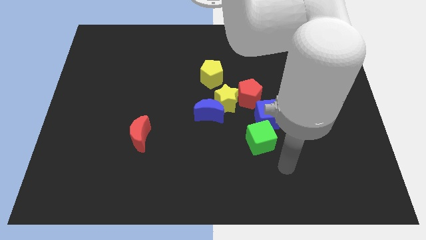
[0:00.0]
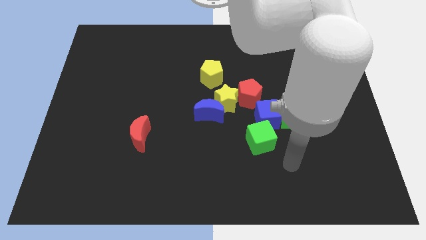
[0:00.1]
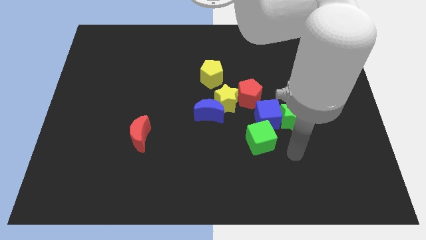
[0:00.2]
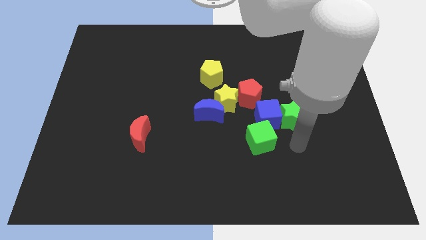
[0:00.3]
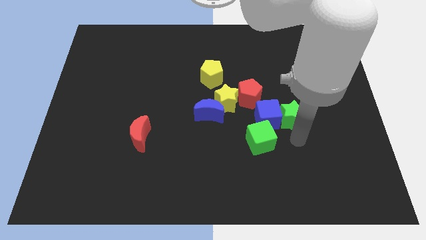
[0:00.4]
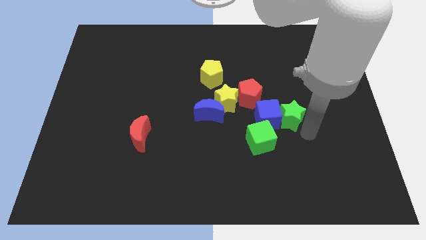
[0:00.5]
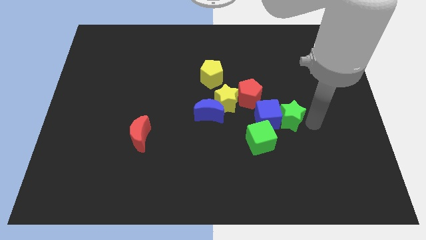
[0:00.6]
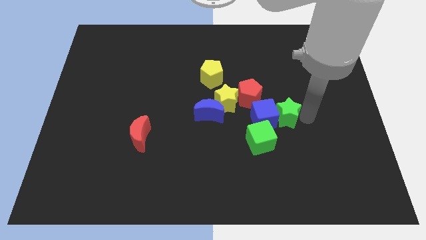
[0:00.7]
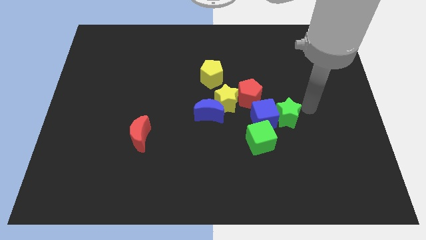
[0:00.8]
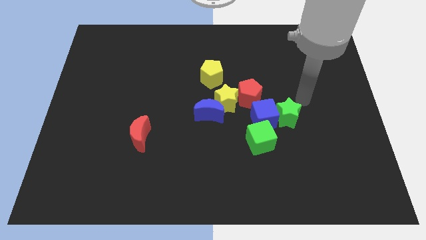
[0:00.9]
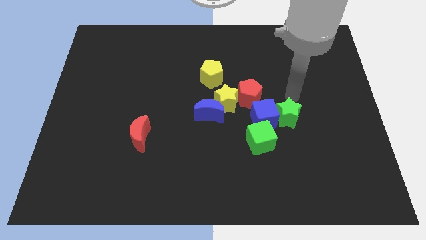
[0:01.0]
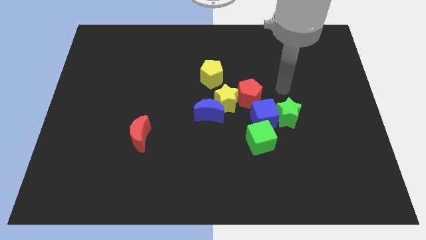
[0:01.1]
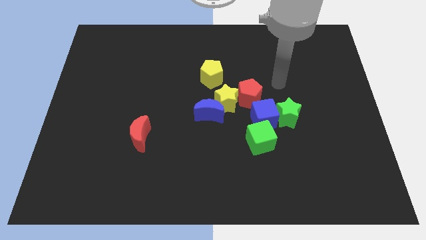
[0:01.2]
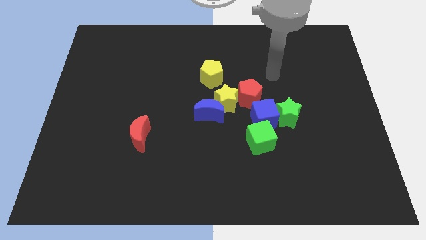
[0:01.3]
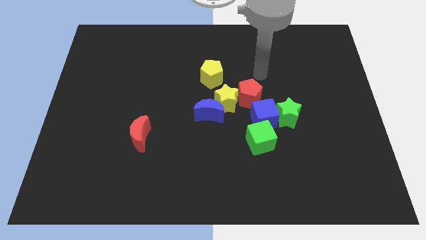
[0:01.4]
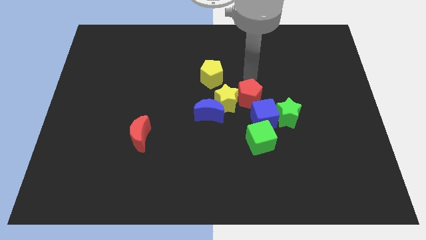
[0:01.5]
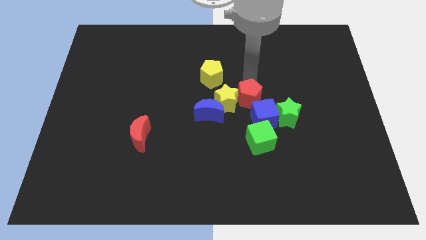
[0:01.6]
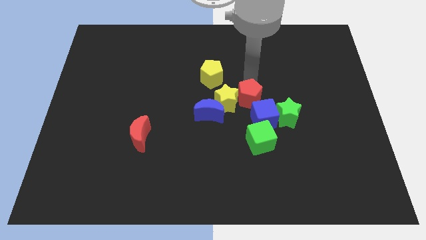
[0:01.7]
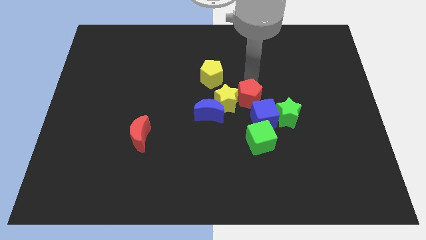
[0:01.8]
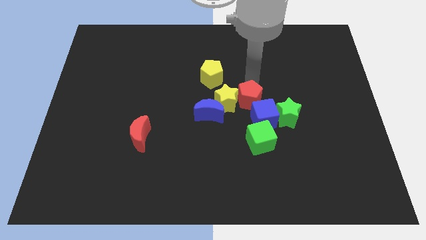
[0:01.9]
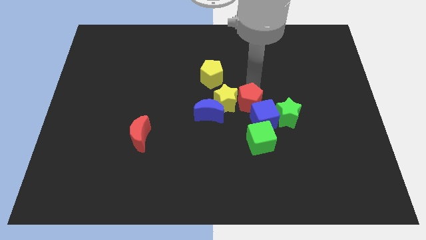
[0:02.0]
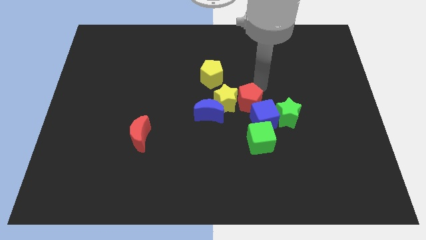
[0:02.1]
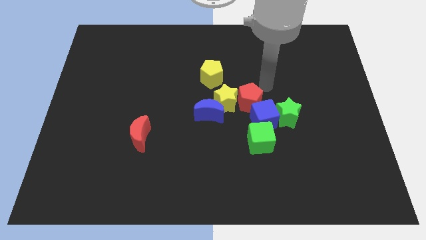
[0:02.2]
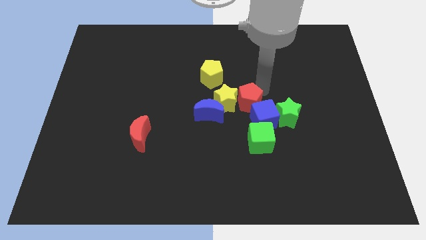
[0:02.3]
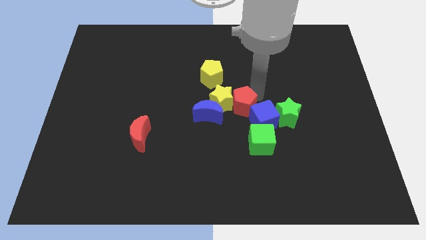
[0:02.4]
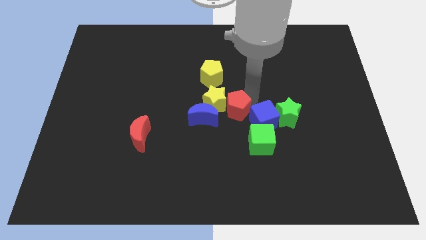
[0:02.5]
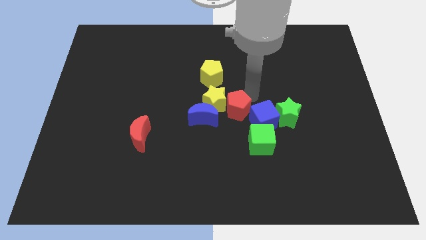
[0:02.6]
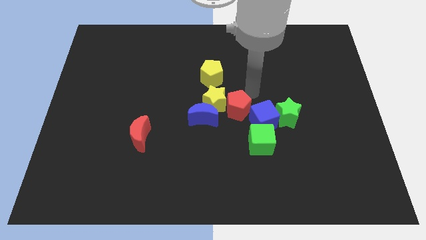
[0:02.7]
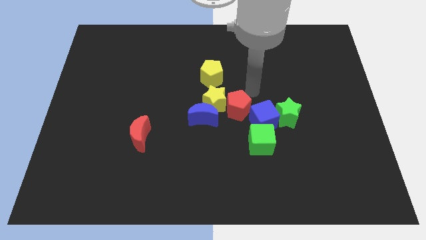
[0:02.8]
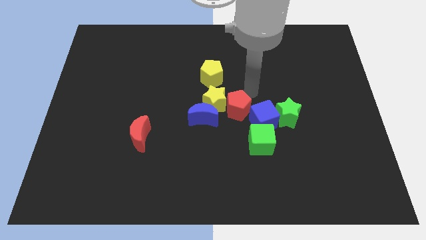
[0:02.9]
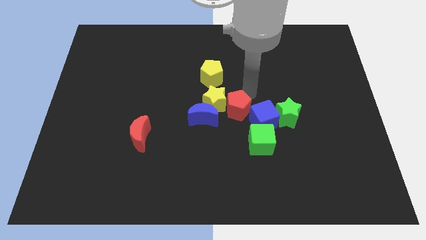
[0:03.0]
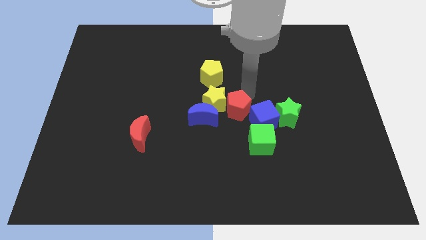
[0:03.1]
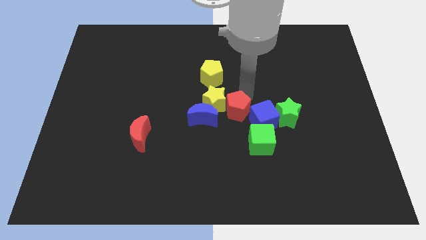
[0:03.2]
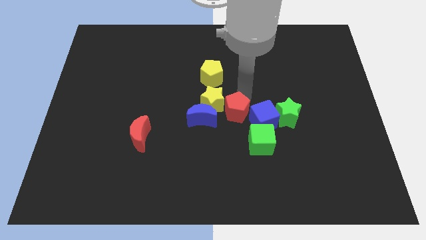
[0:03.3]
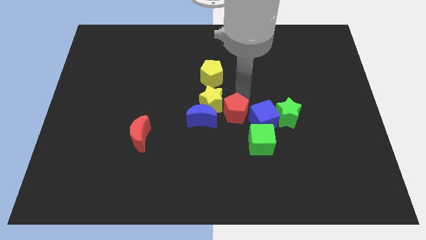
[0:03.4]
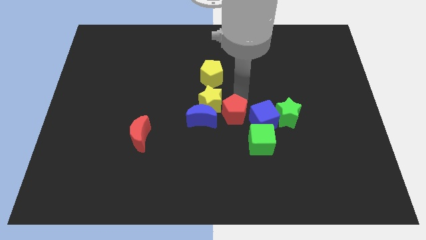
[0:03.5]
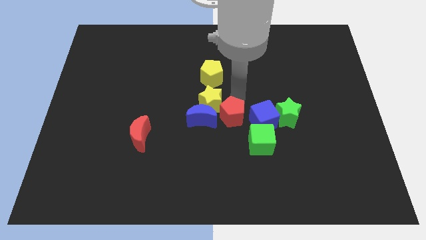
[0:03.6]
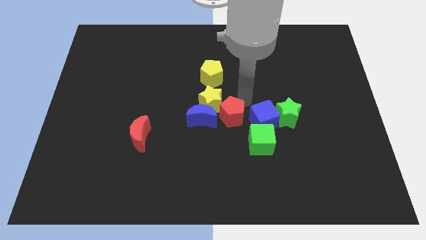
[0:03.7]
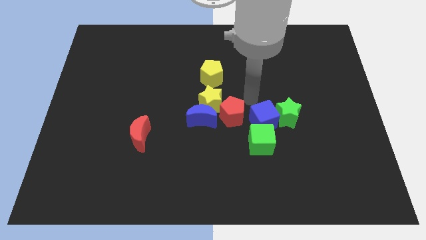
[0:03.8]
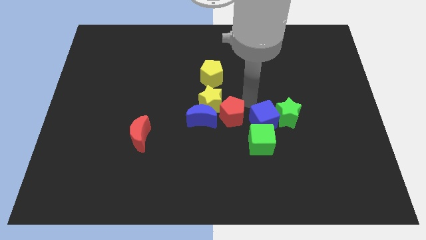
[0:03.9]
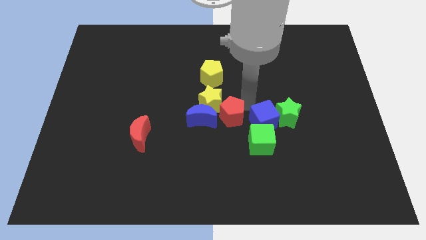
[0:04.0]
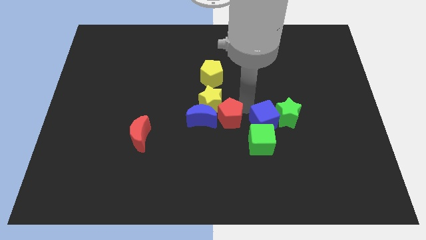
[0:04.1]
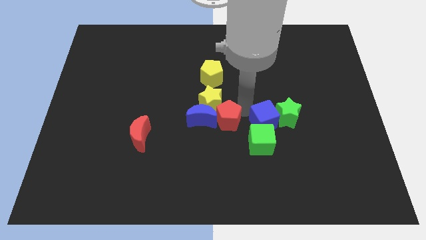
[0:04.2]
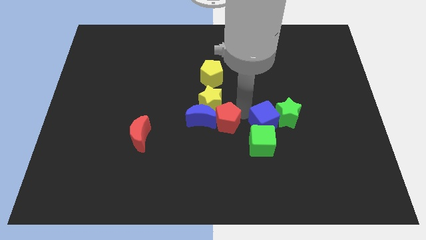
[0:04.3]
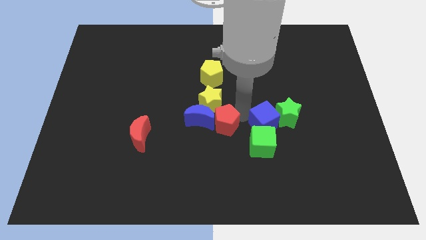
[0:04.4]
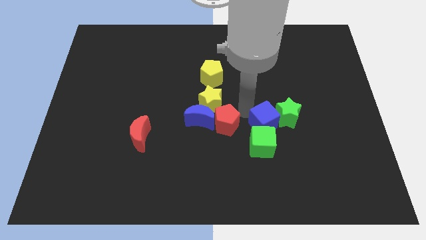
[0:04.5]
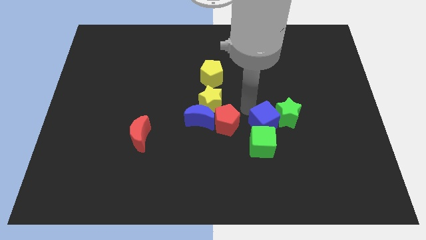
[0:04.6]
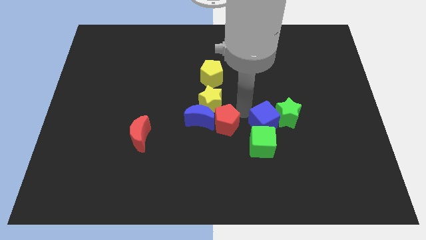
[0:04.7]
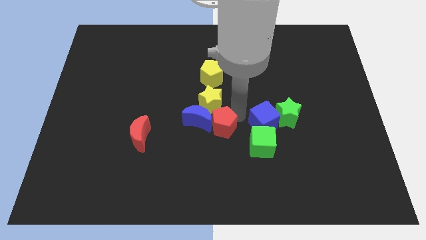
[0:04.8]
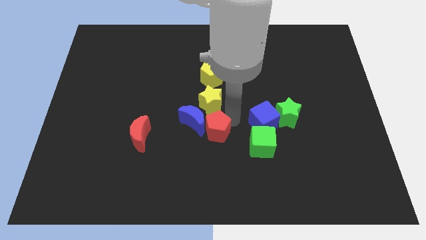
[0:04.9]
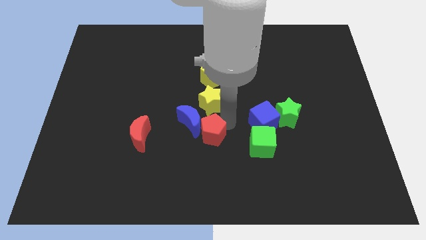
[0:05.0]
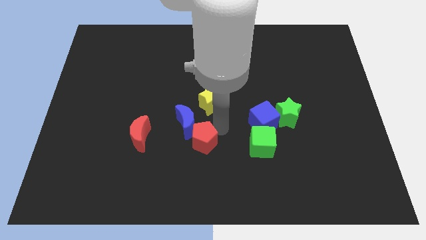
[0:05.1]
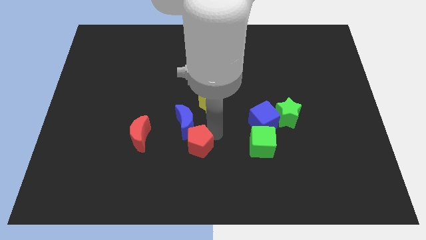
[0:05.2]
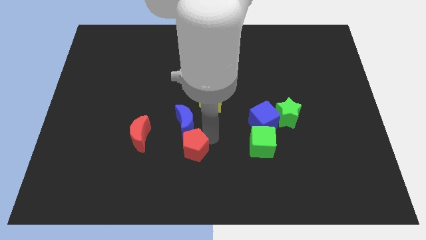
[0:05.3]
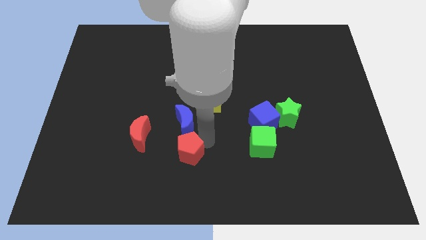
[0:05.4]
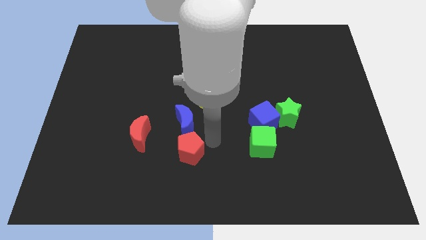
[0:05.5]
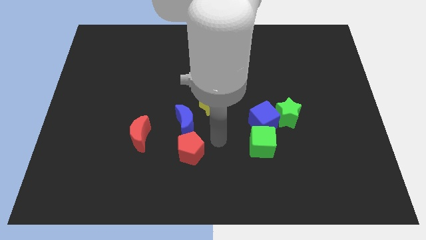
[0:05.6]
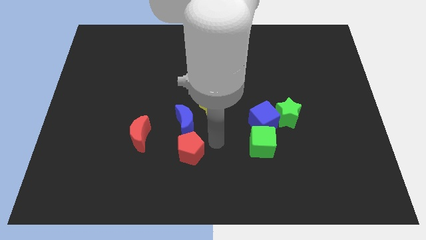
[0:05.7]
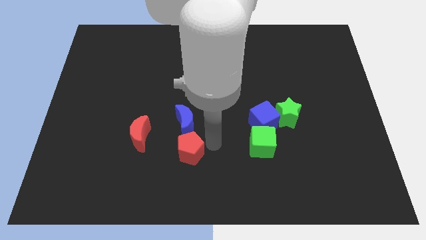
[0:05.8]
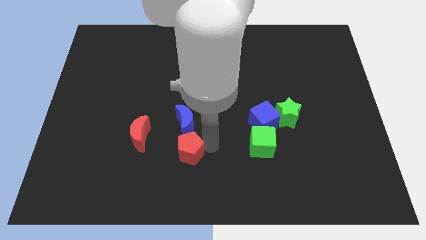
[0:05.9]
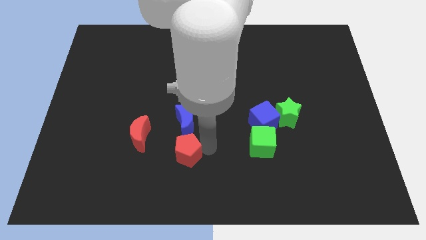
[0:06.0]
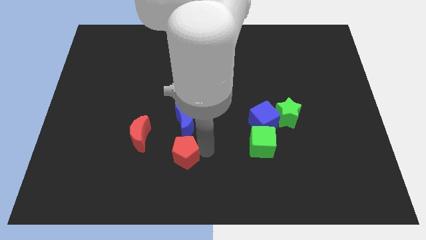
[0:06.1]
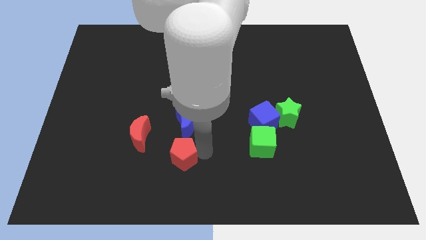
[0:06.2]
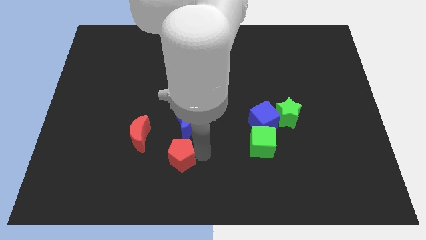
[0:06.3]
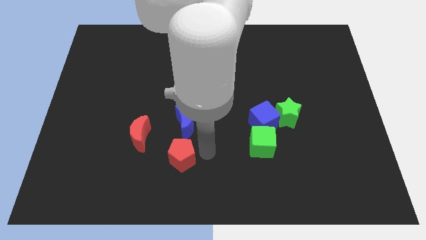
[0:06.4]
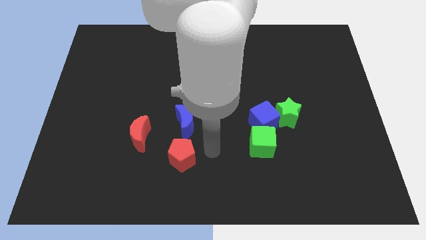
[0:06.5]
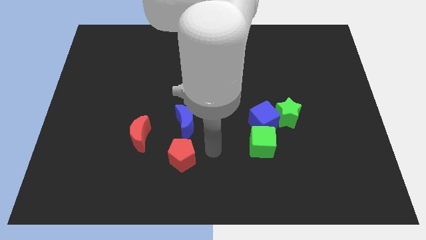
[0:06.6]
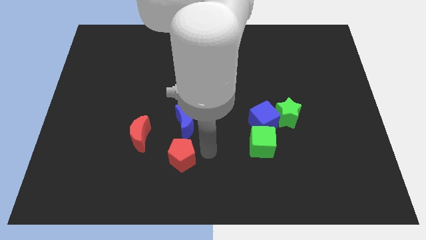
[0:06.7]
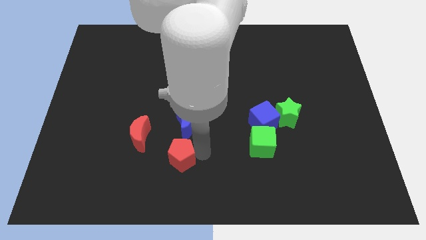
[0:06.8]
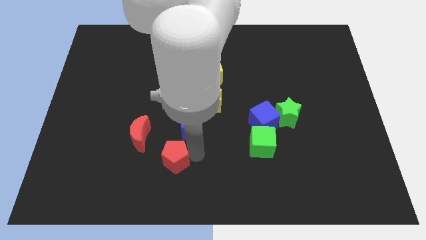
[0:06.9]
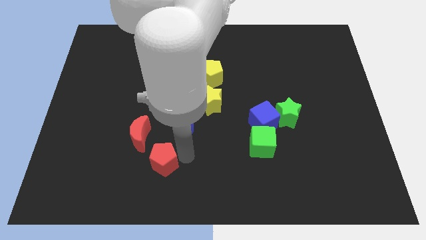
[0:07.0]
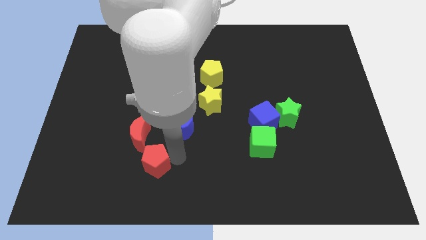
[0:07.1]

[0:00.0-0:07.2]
put the red pentagon below the red moon

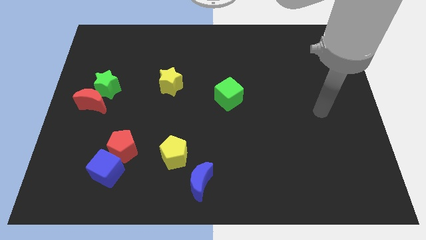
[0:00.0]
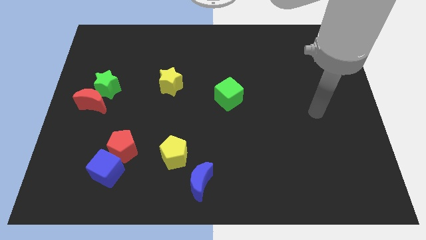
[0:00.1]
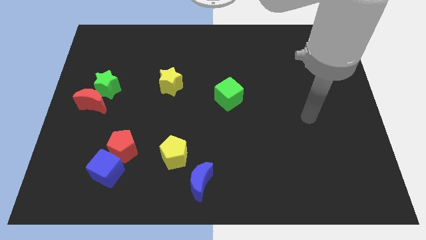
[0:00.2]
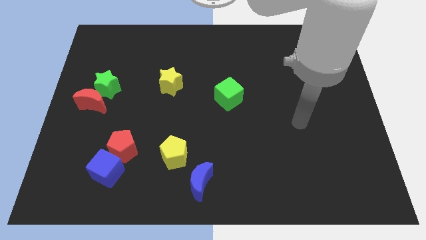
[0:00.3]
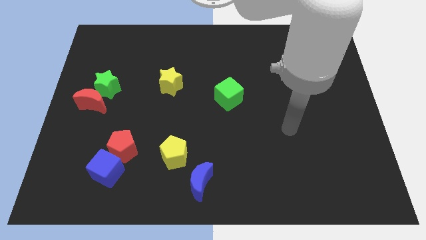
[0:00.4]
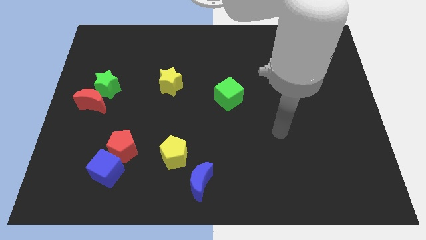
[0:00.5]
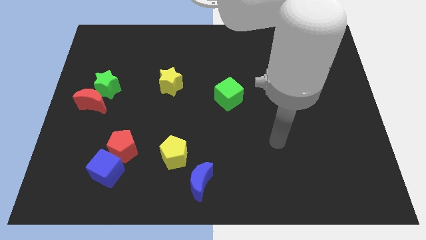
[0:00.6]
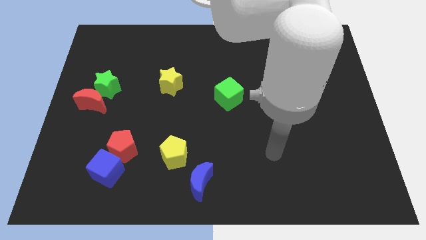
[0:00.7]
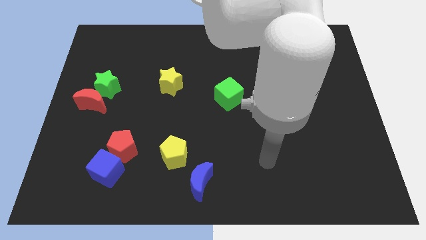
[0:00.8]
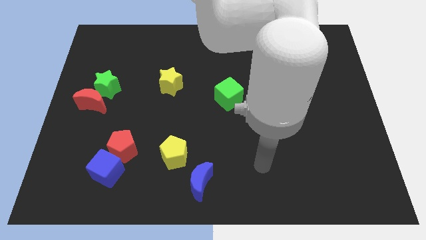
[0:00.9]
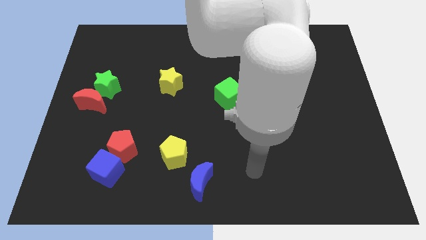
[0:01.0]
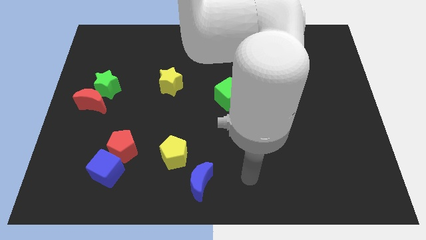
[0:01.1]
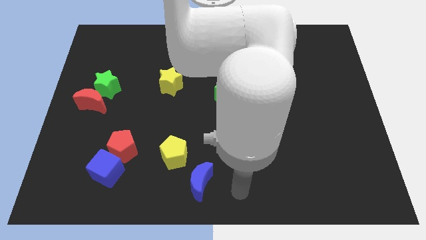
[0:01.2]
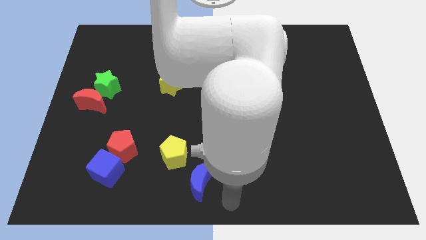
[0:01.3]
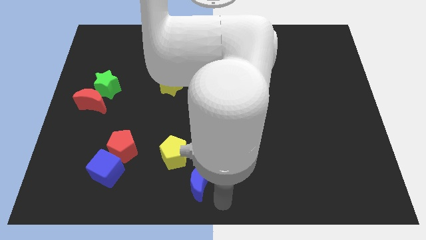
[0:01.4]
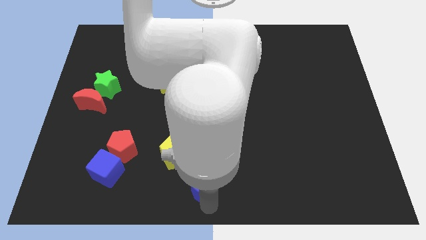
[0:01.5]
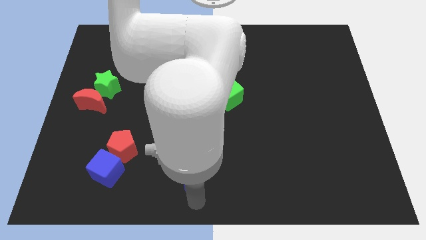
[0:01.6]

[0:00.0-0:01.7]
move the yellow pentagon above the blue moon
